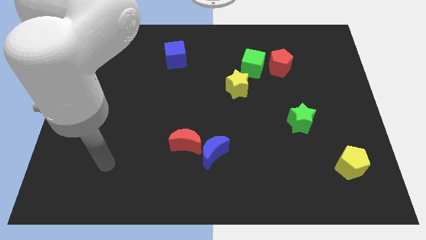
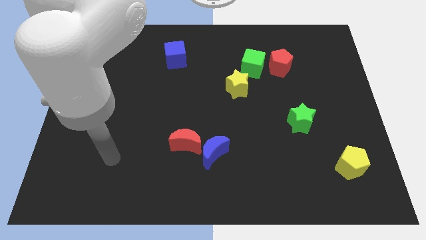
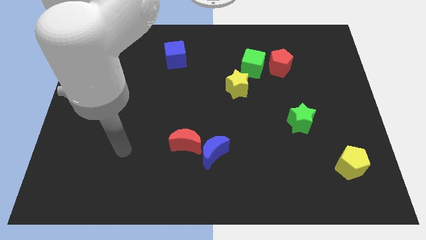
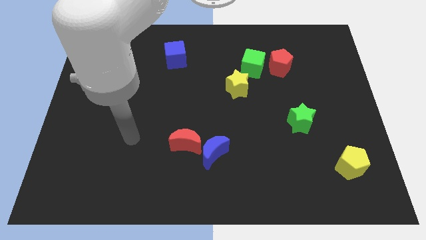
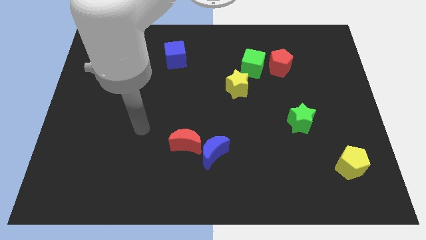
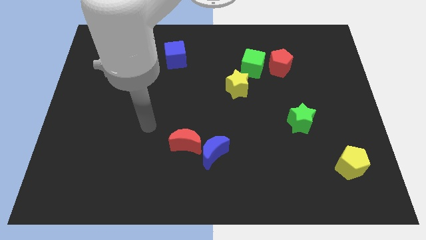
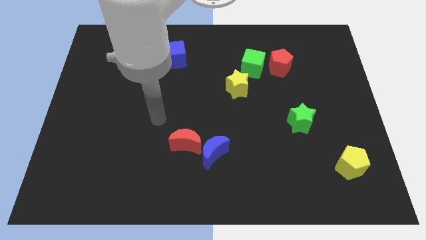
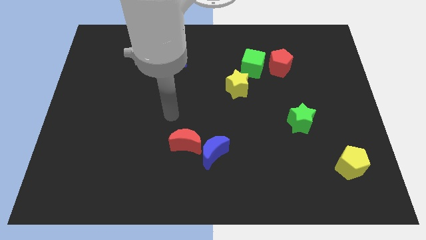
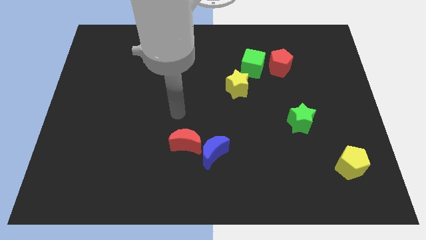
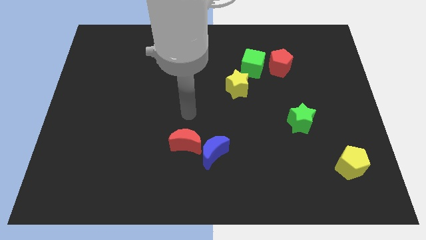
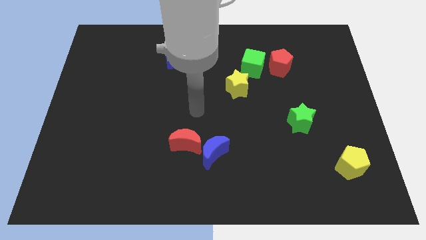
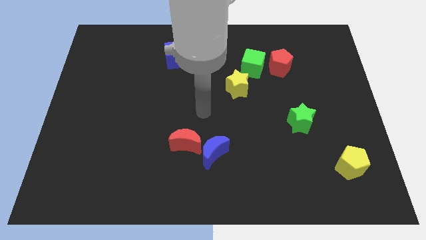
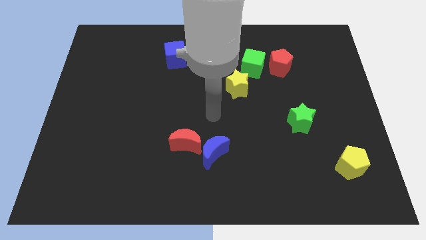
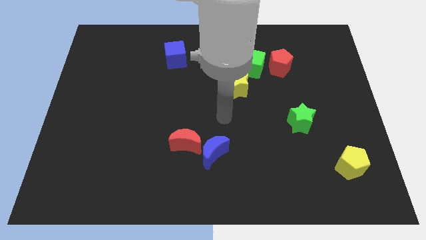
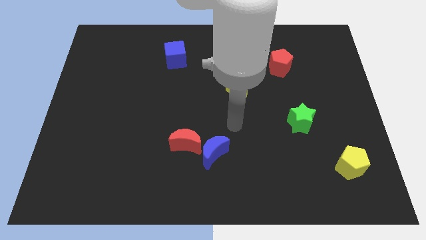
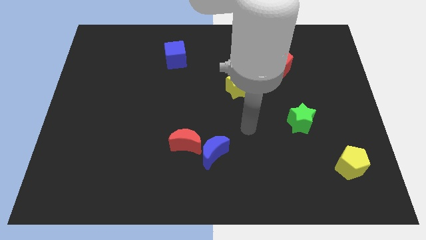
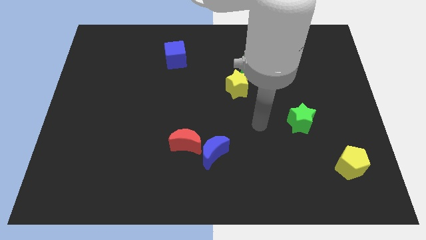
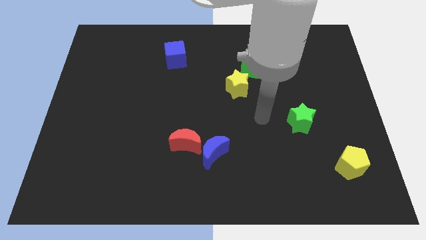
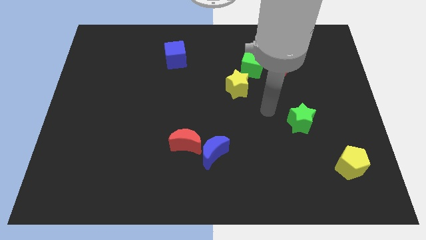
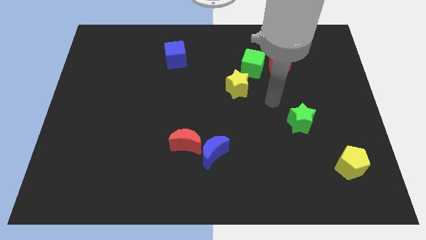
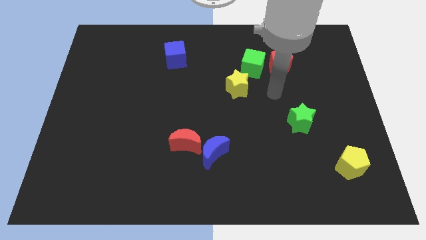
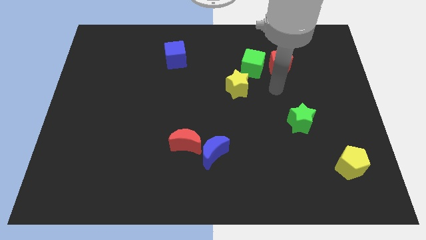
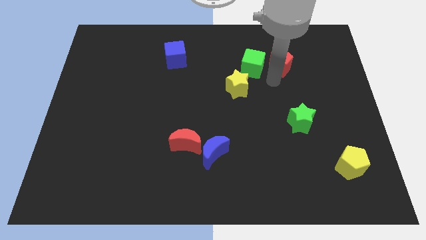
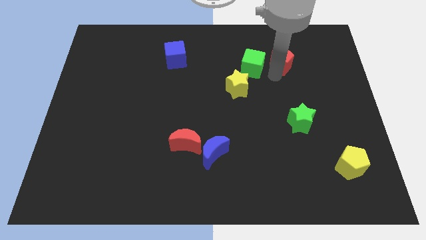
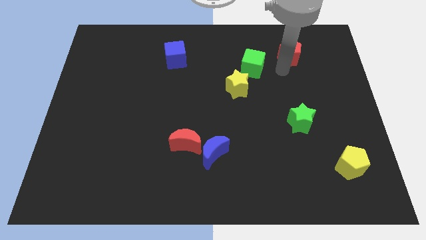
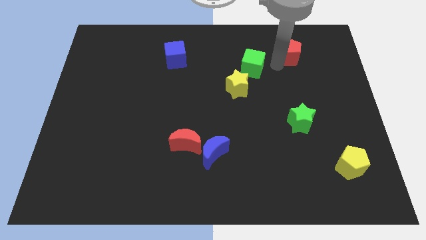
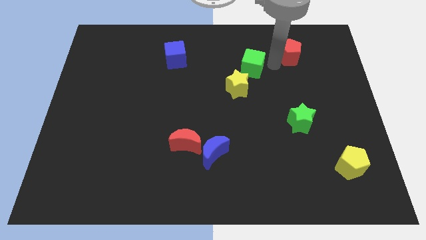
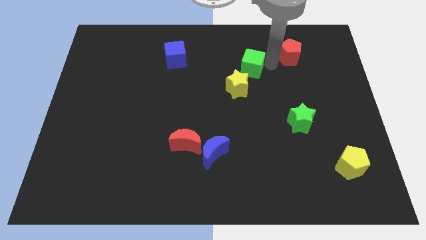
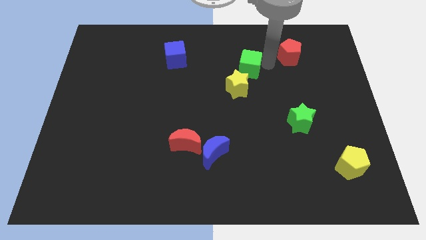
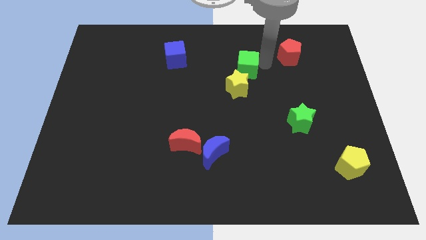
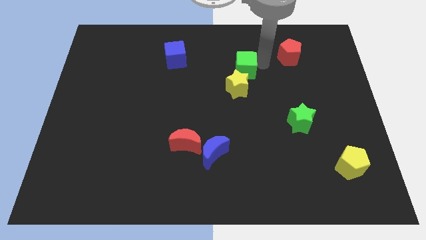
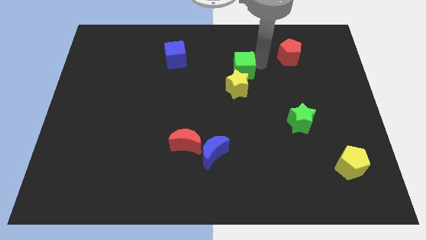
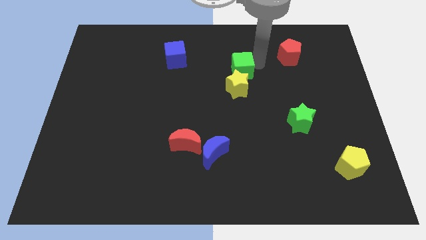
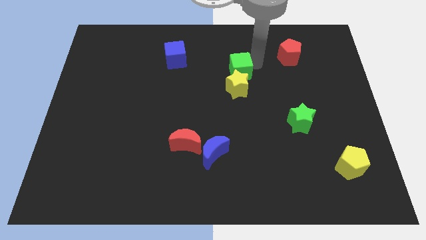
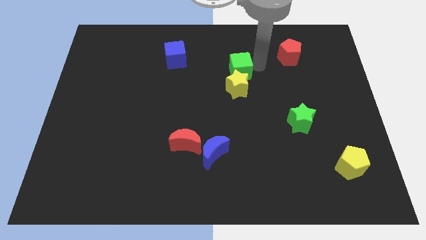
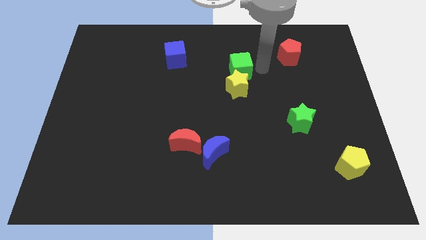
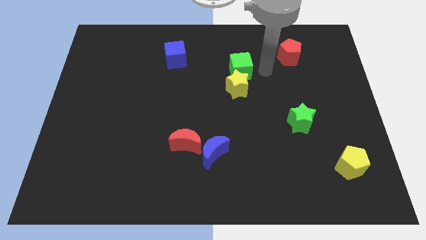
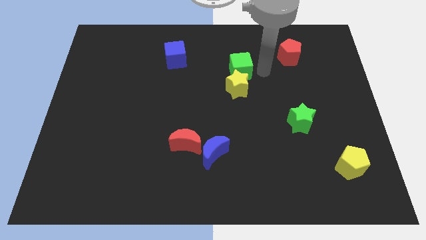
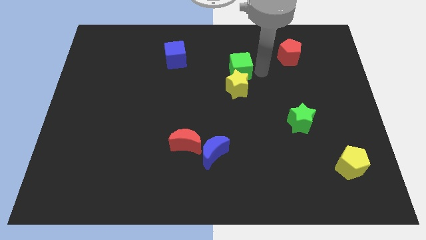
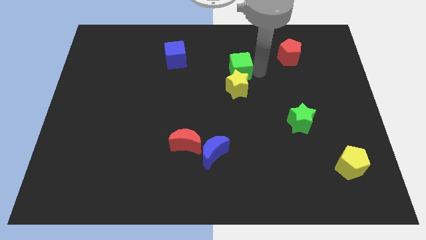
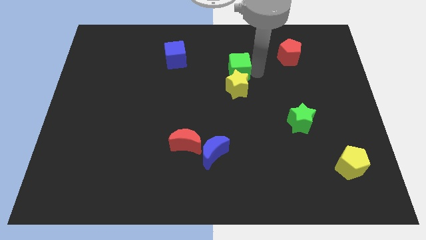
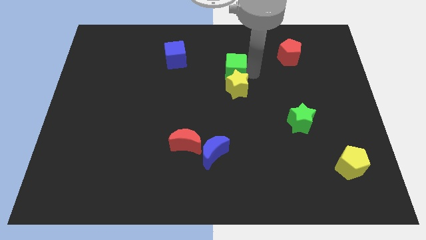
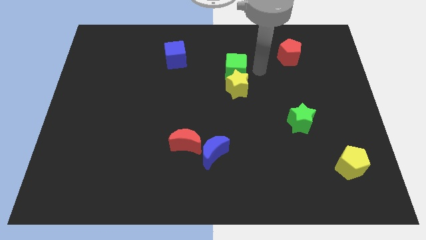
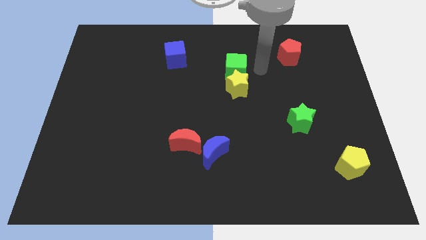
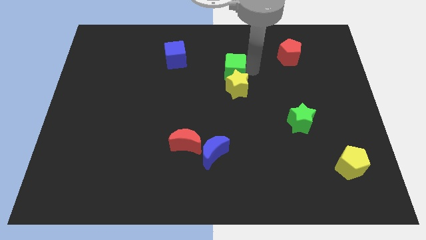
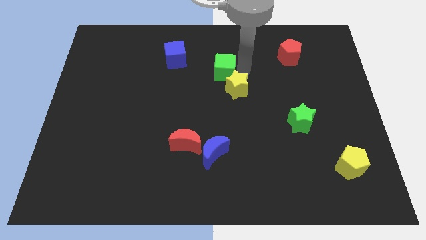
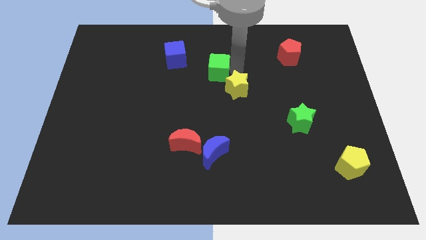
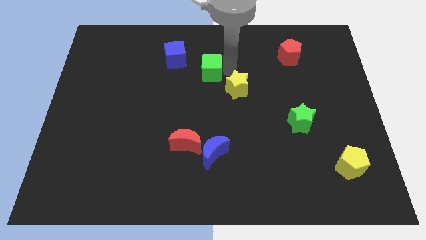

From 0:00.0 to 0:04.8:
move the green cube to the bottom right side of the blue cube

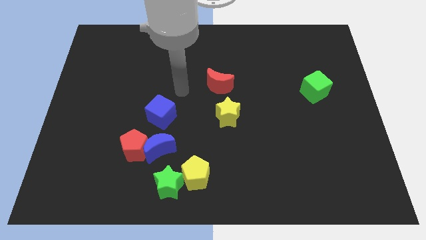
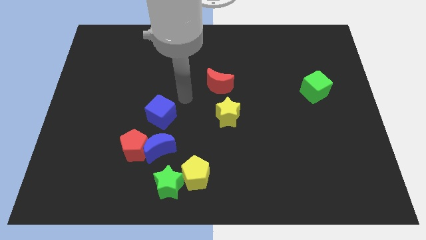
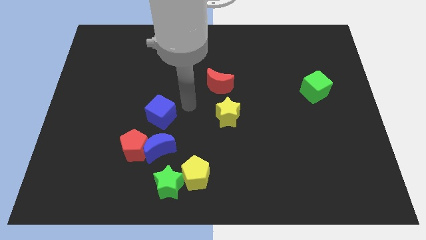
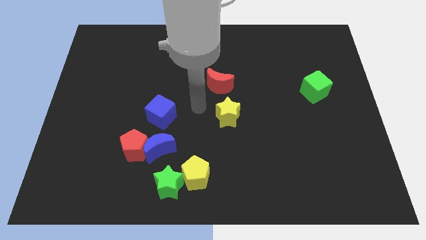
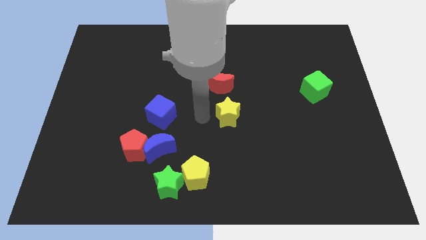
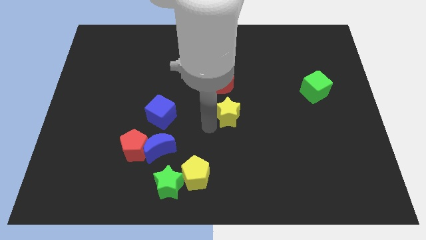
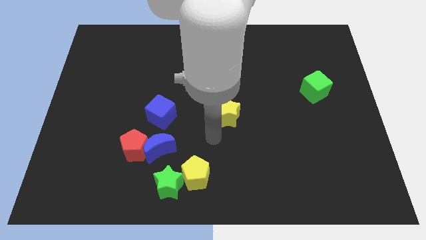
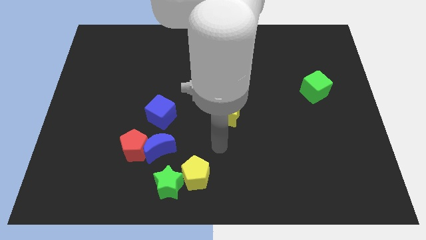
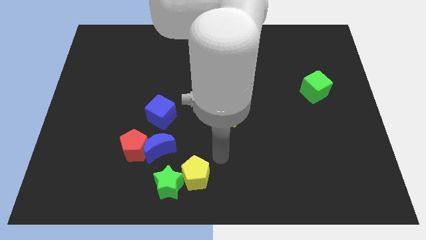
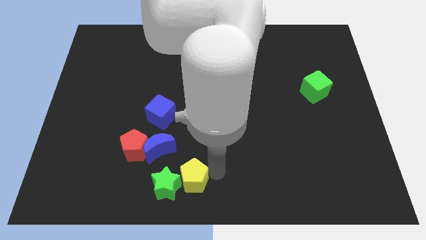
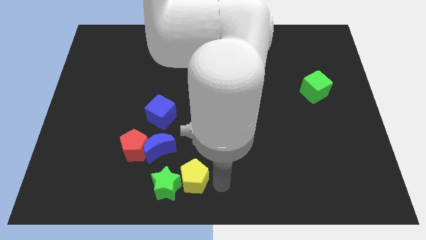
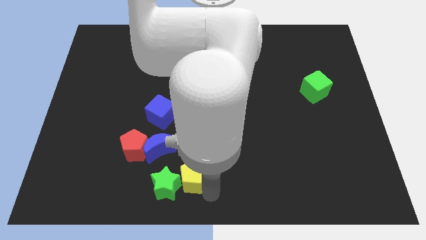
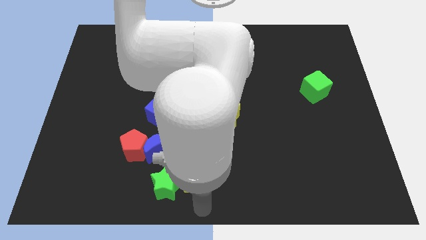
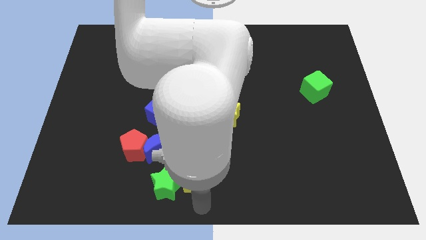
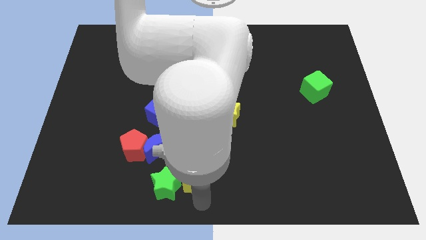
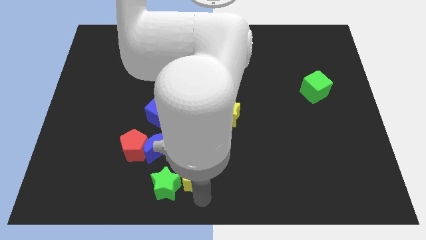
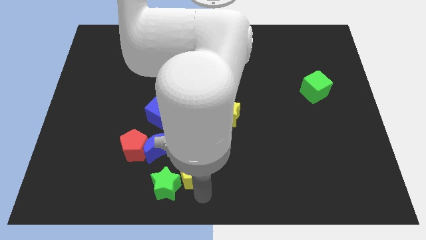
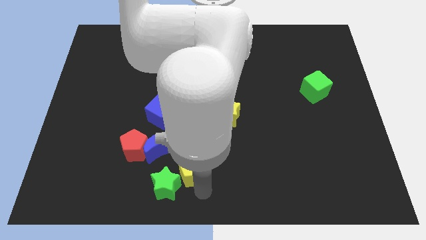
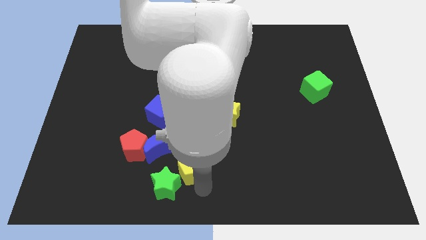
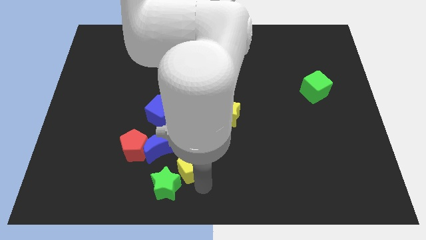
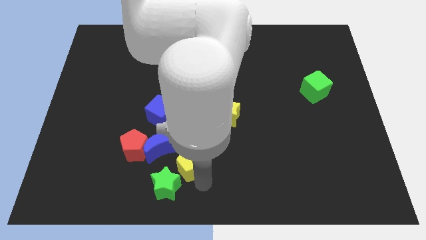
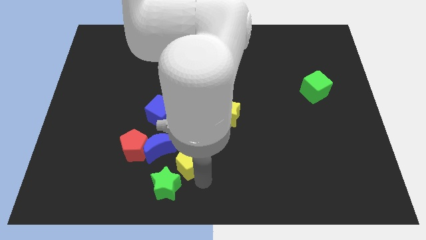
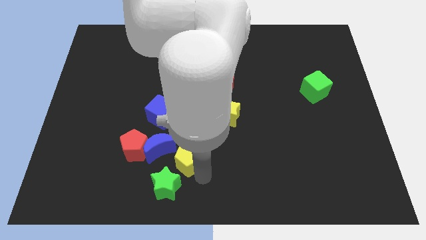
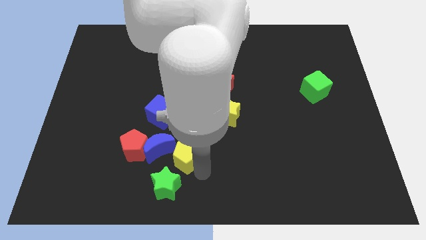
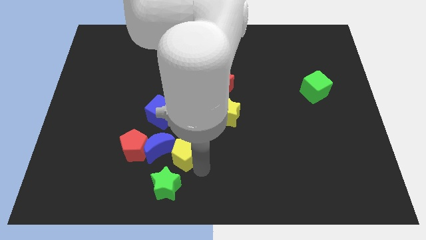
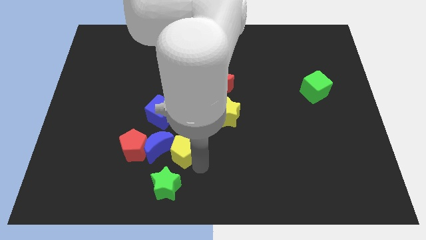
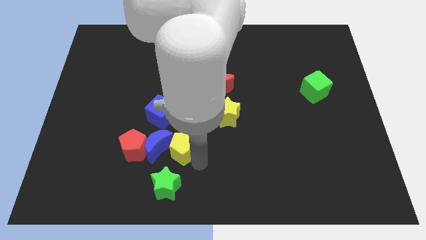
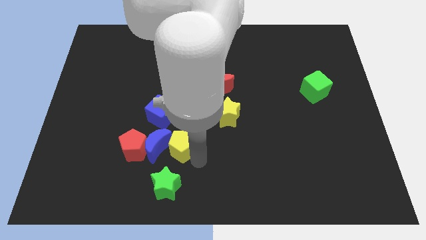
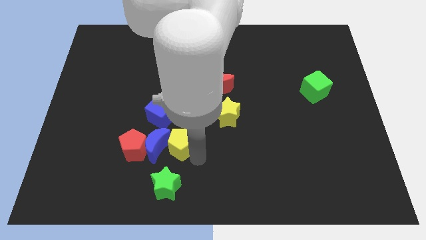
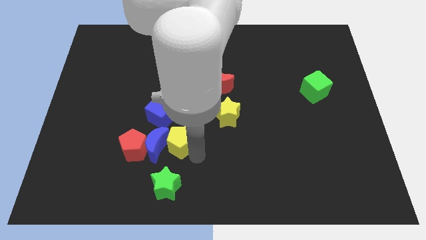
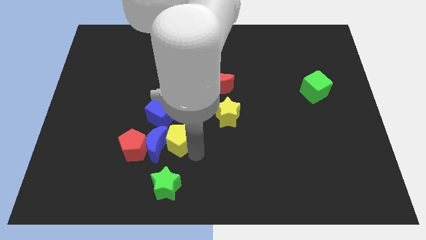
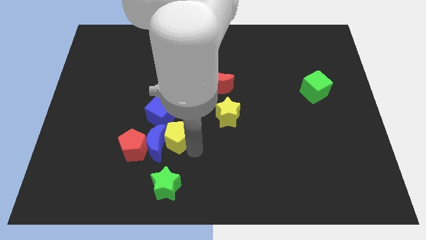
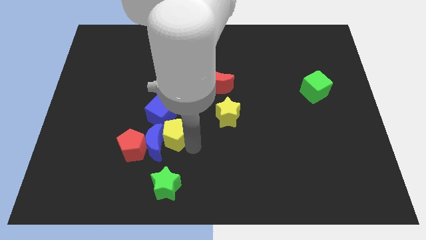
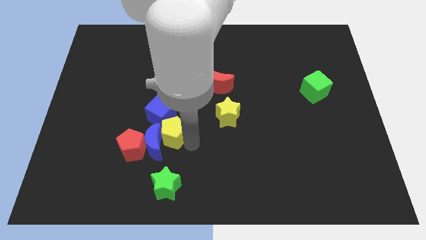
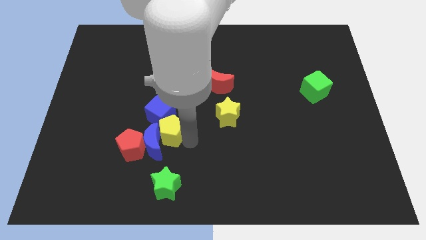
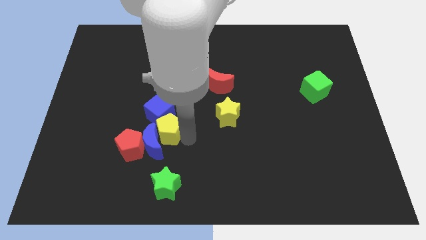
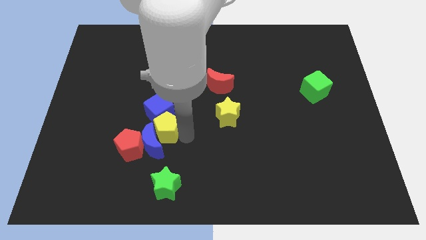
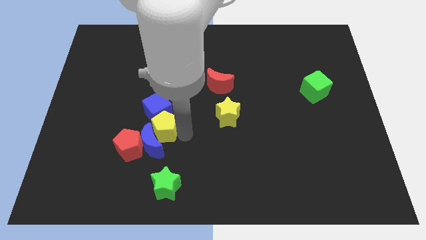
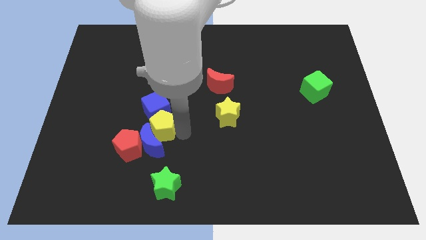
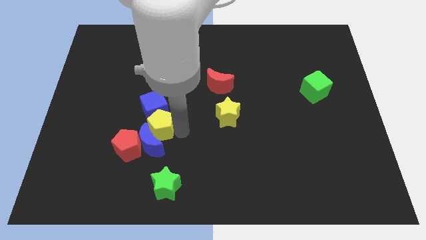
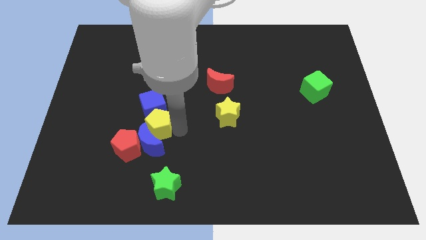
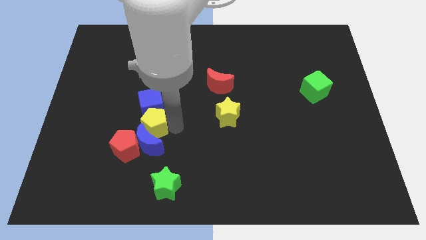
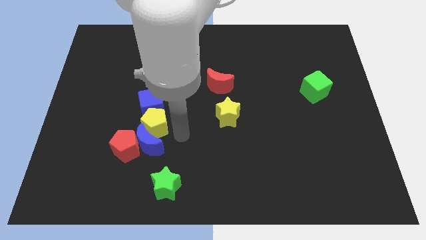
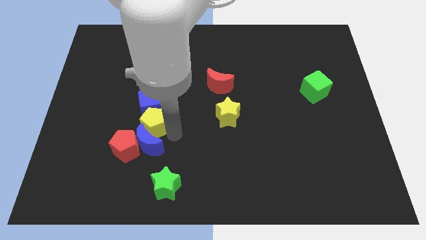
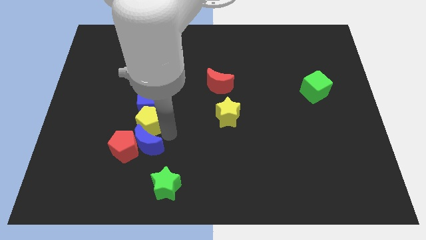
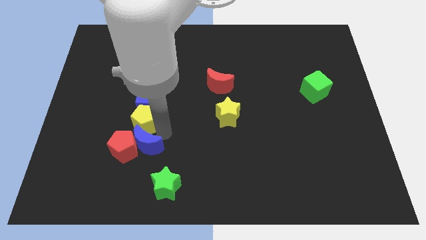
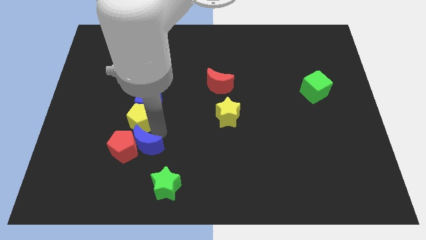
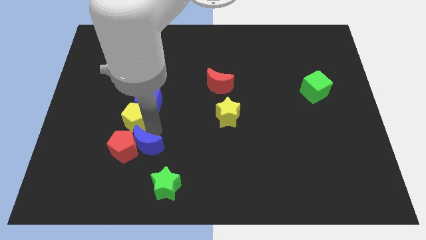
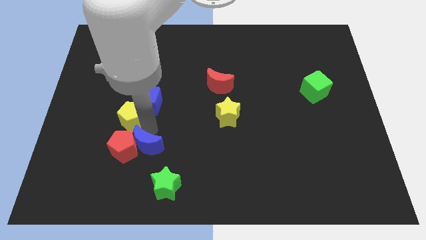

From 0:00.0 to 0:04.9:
push the yellow pentagon left of the blue cube
